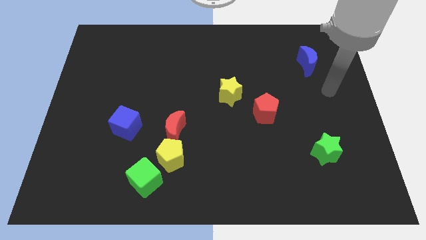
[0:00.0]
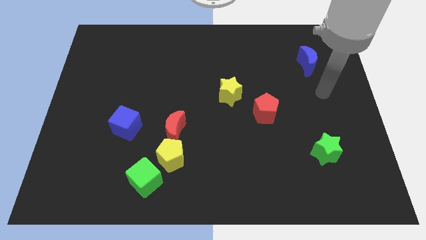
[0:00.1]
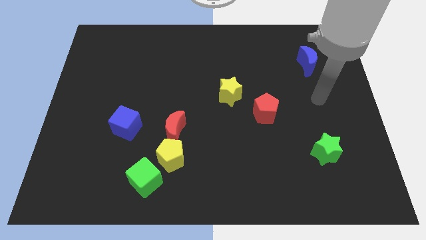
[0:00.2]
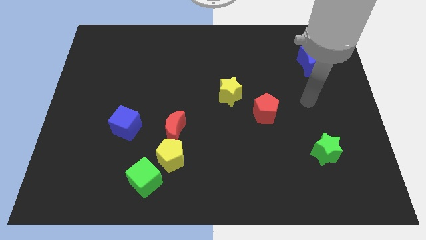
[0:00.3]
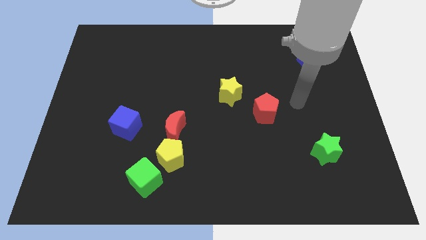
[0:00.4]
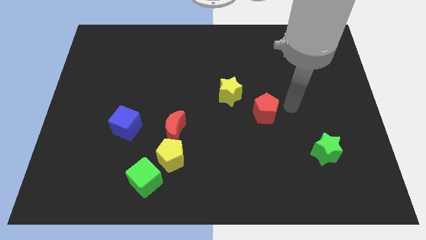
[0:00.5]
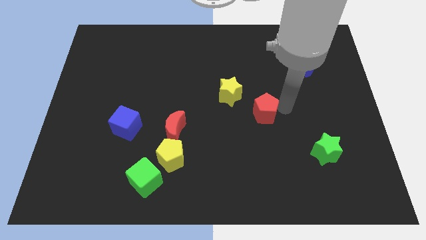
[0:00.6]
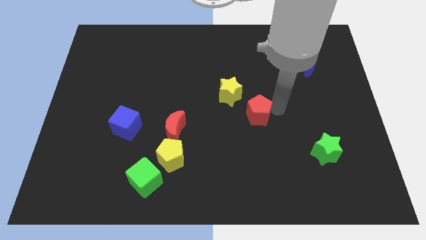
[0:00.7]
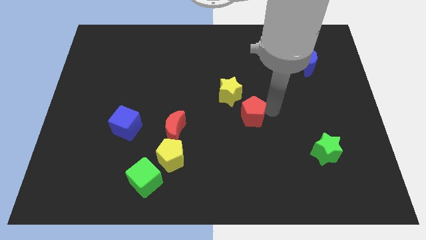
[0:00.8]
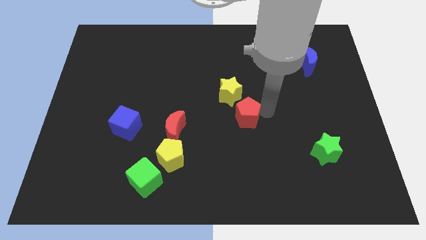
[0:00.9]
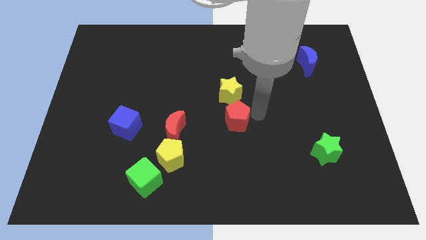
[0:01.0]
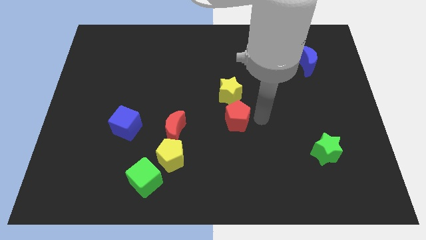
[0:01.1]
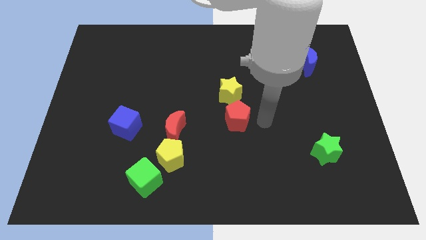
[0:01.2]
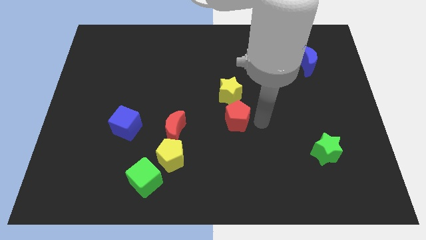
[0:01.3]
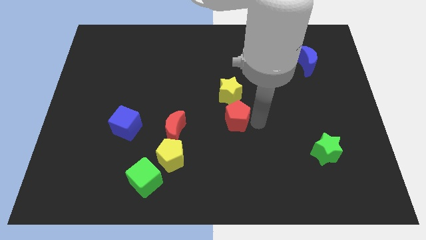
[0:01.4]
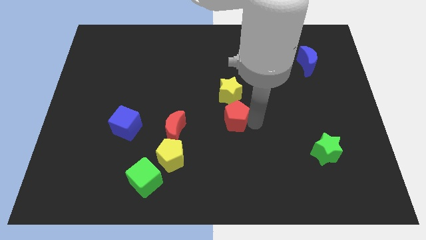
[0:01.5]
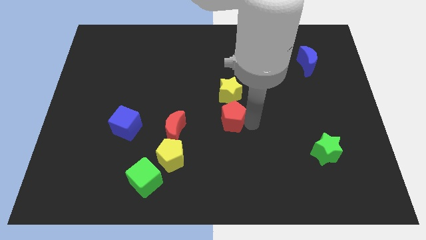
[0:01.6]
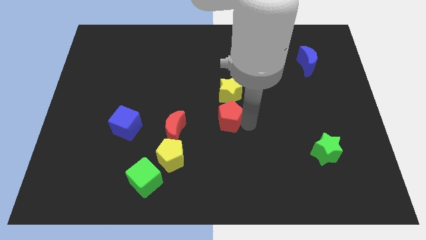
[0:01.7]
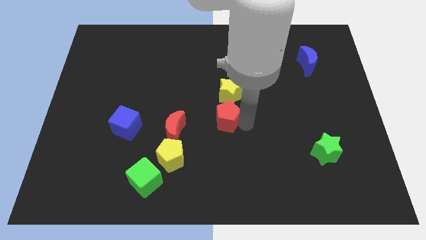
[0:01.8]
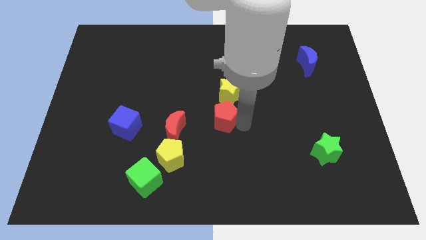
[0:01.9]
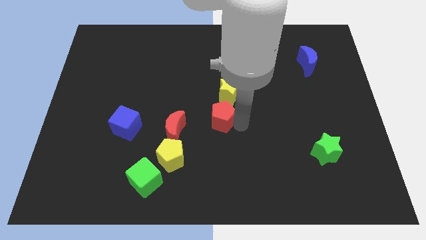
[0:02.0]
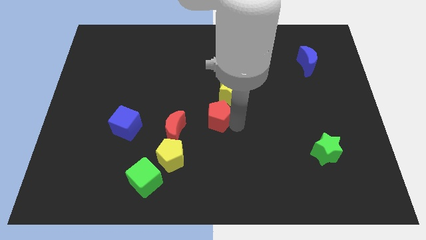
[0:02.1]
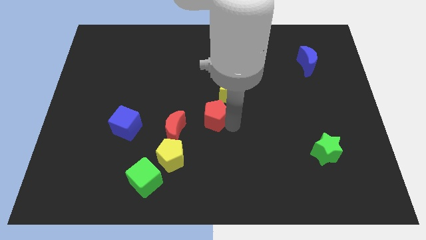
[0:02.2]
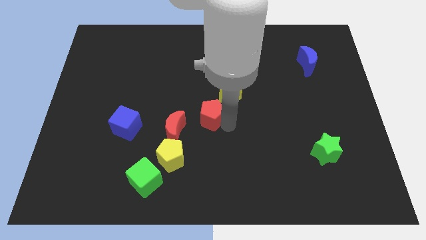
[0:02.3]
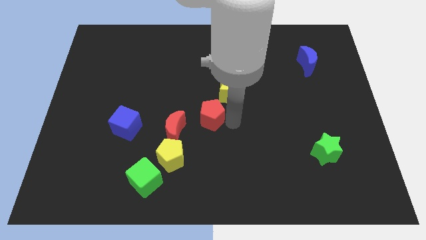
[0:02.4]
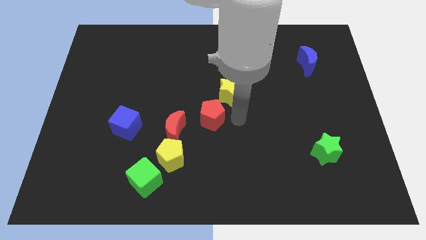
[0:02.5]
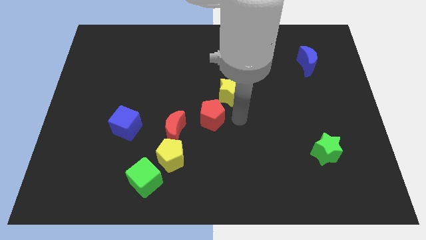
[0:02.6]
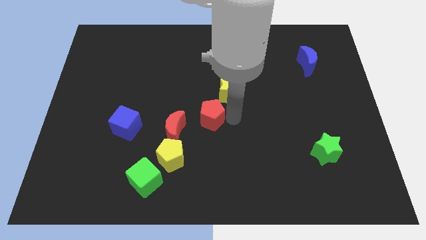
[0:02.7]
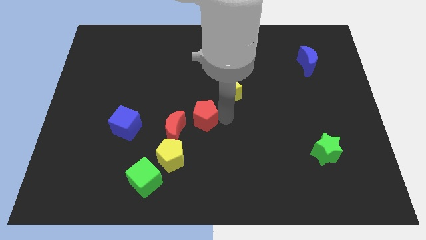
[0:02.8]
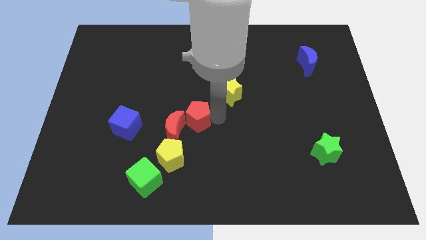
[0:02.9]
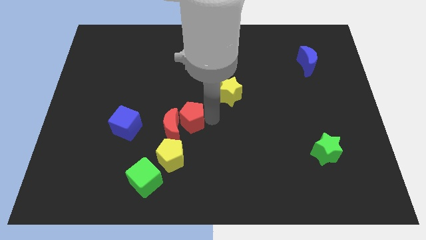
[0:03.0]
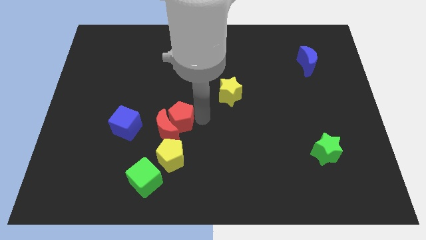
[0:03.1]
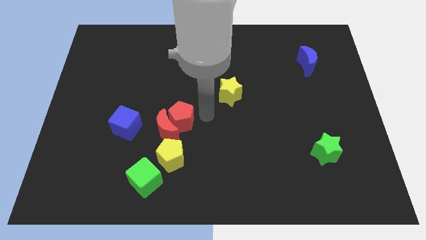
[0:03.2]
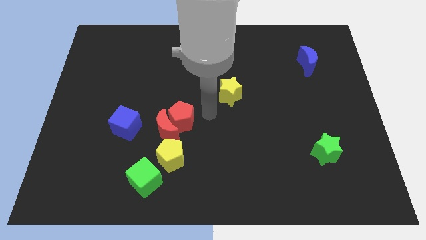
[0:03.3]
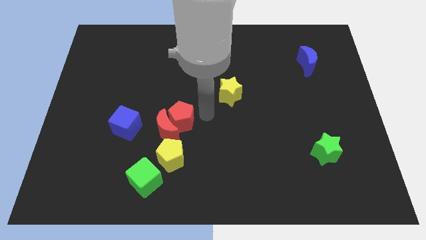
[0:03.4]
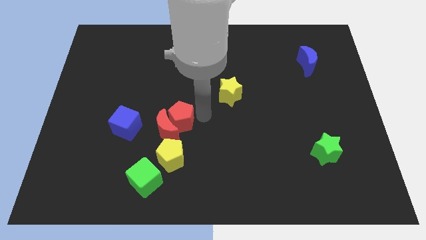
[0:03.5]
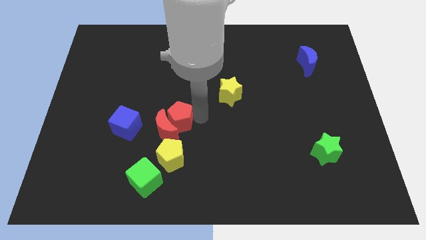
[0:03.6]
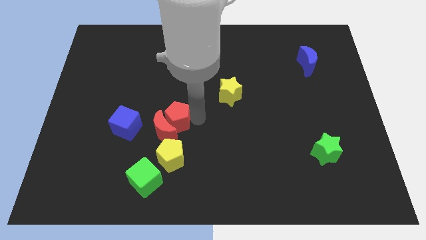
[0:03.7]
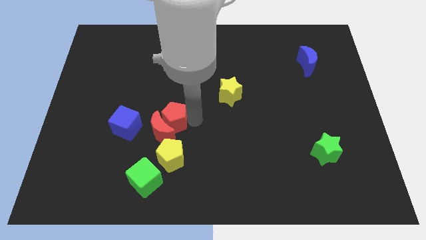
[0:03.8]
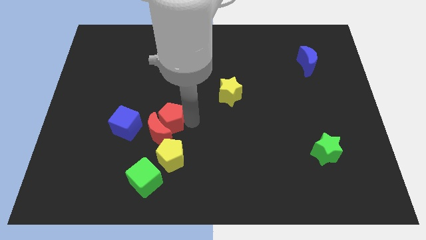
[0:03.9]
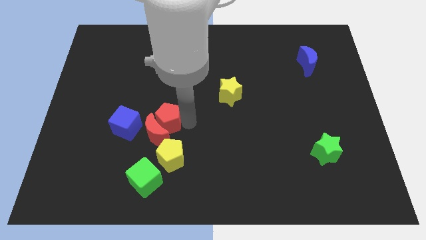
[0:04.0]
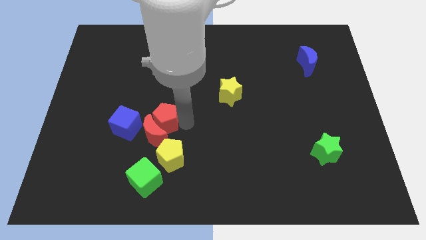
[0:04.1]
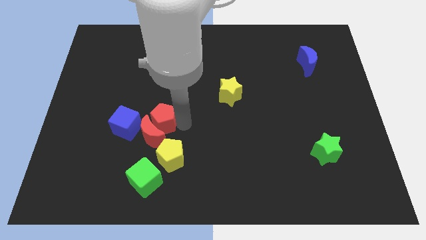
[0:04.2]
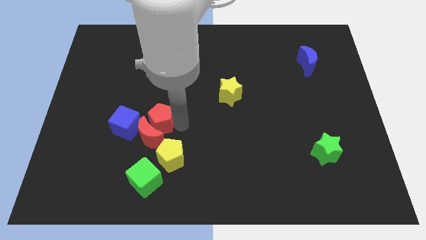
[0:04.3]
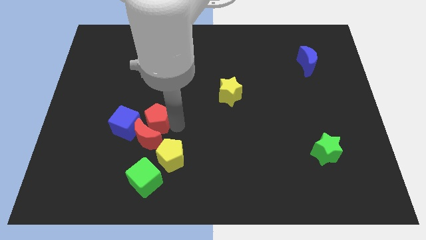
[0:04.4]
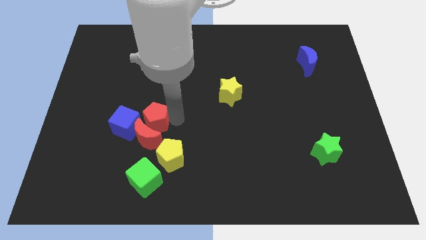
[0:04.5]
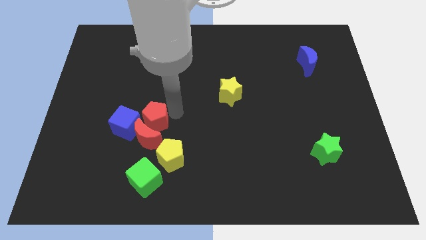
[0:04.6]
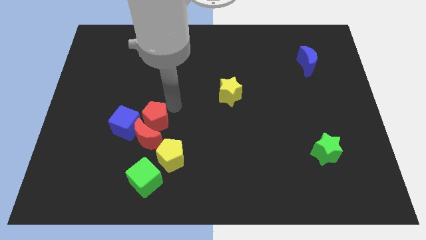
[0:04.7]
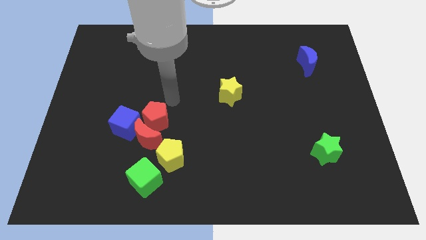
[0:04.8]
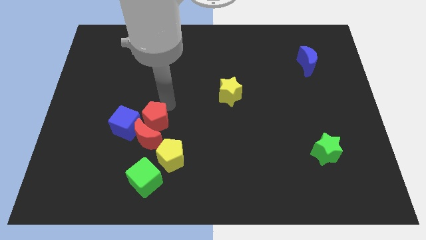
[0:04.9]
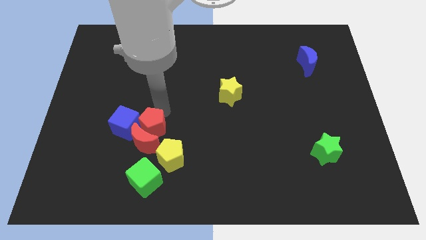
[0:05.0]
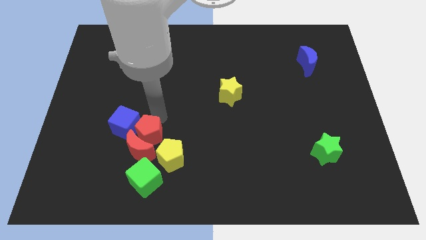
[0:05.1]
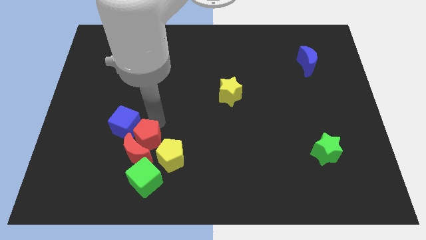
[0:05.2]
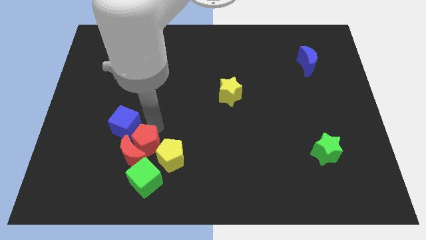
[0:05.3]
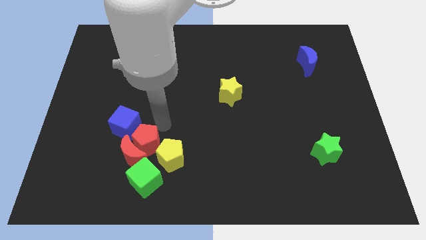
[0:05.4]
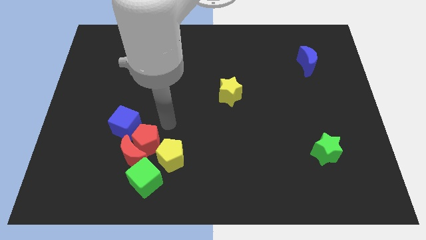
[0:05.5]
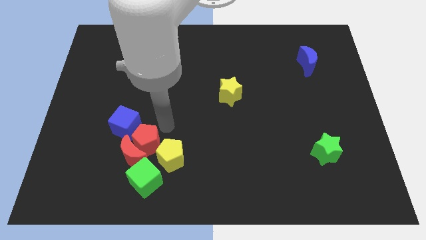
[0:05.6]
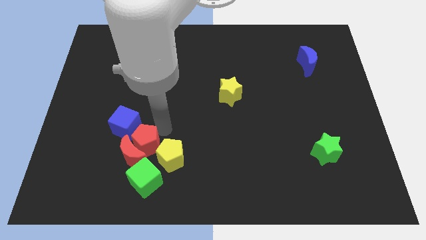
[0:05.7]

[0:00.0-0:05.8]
put the red pentagon to the bottom of the blue cube

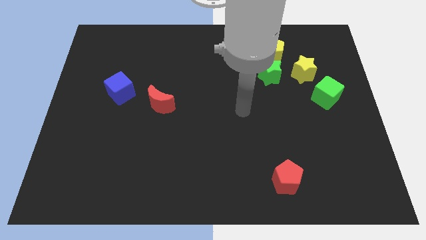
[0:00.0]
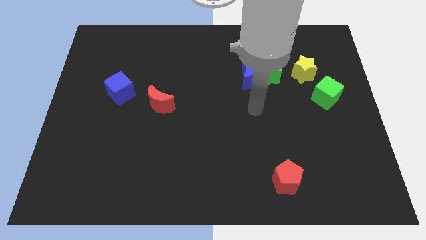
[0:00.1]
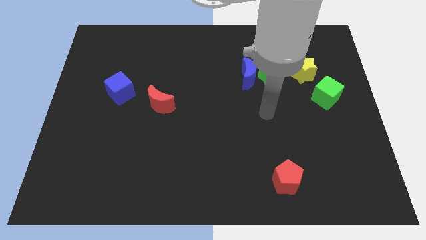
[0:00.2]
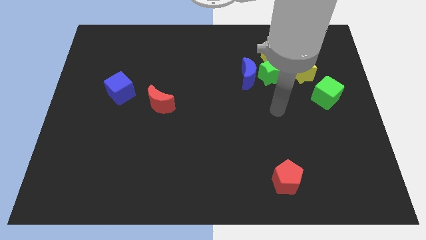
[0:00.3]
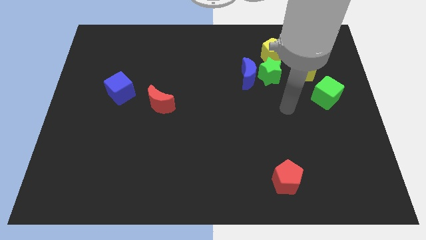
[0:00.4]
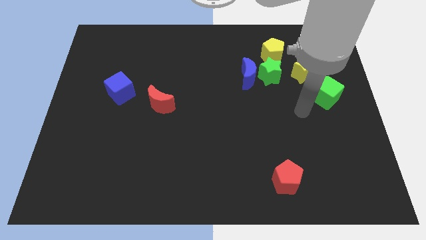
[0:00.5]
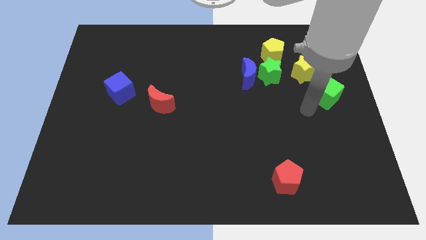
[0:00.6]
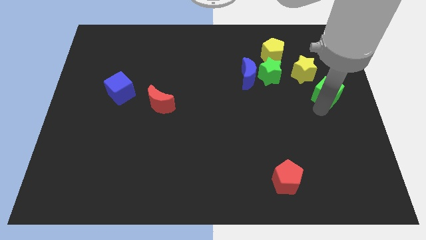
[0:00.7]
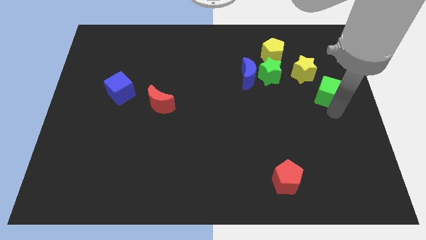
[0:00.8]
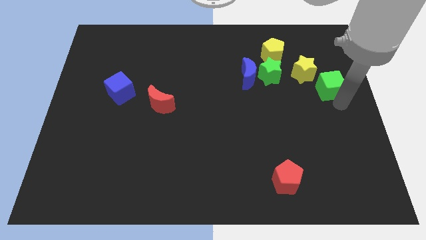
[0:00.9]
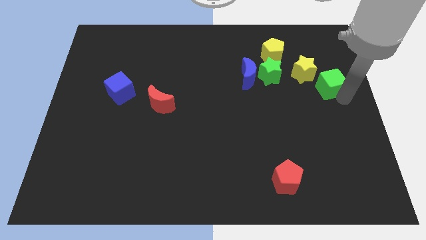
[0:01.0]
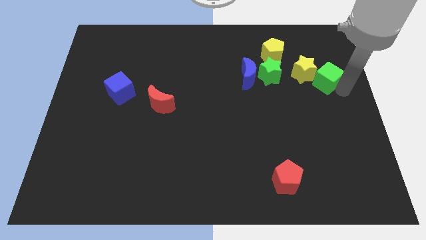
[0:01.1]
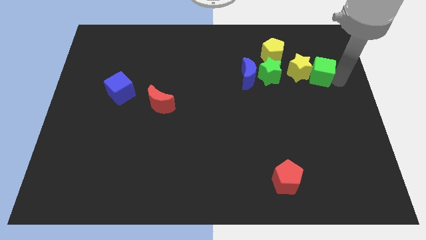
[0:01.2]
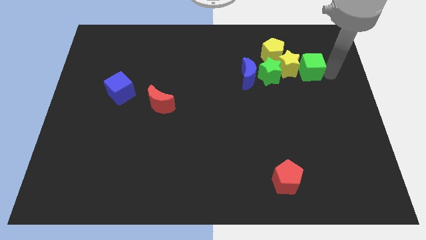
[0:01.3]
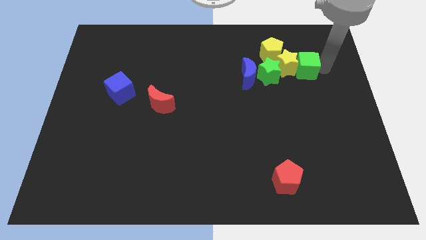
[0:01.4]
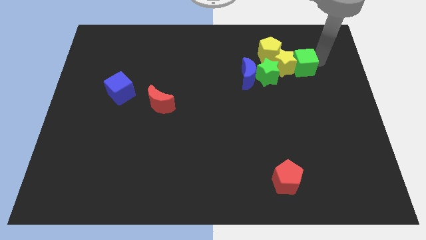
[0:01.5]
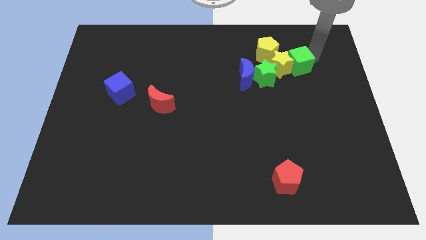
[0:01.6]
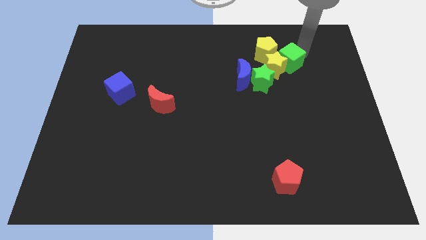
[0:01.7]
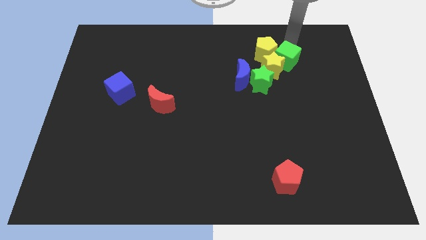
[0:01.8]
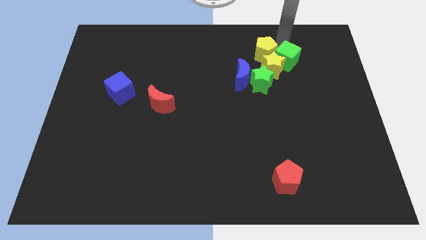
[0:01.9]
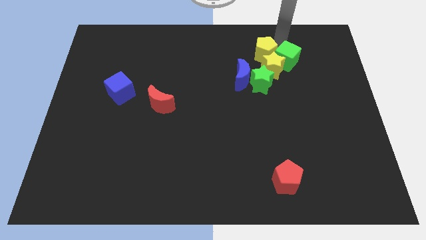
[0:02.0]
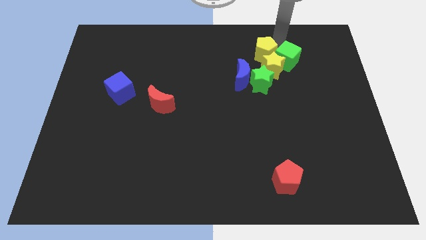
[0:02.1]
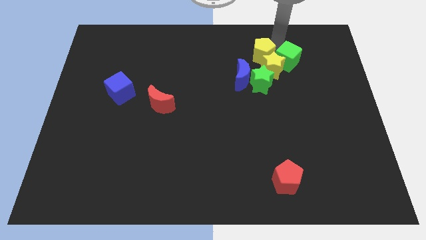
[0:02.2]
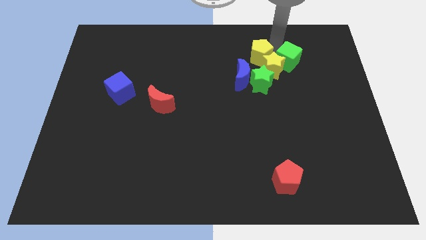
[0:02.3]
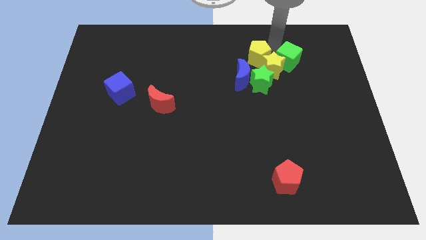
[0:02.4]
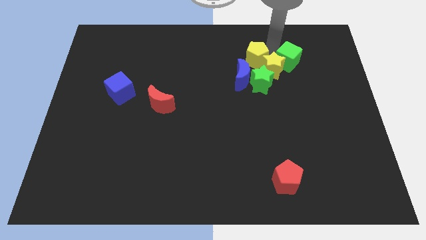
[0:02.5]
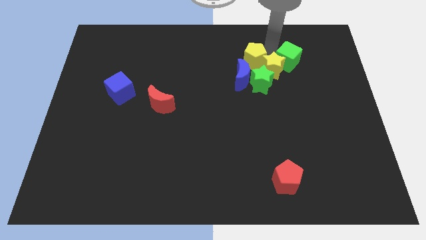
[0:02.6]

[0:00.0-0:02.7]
slide the yellow pentagon to the top left of the green star

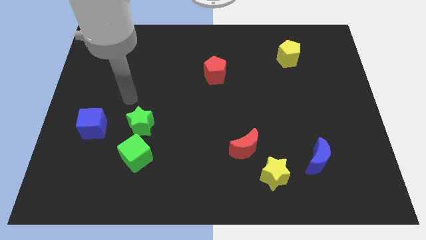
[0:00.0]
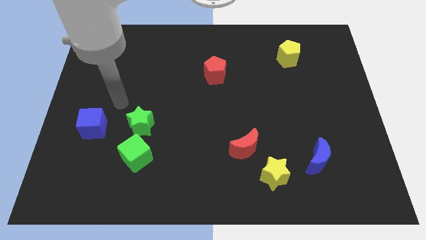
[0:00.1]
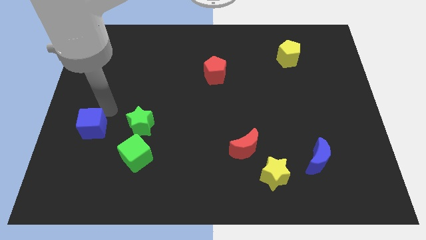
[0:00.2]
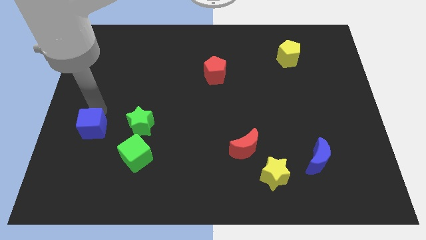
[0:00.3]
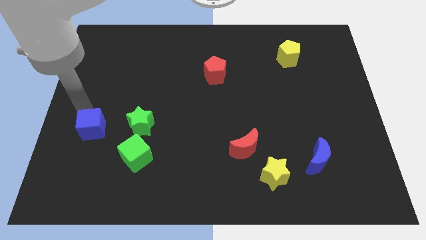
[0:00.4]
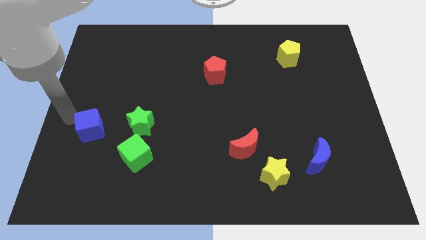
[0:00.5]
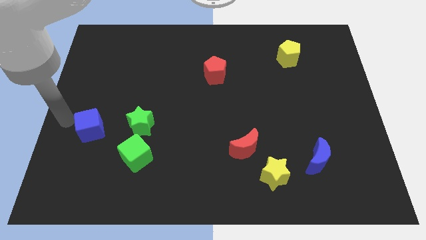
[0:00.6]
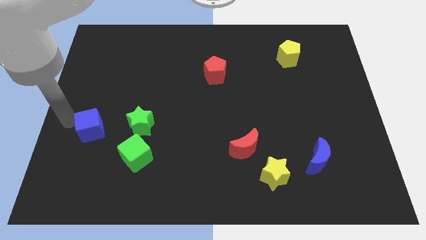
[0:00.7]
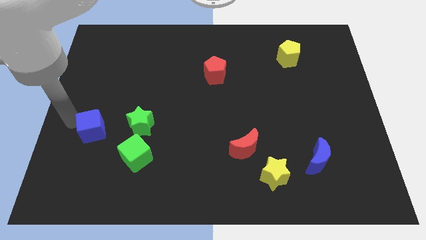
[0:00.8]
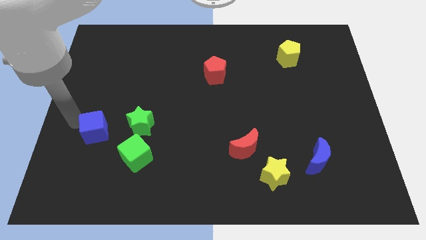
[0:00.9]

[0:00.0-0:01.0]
move the blue cube to the top left of the green cube
